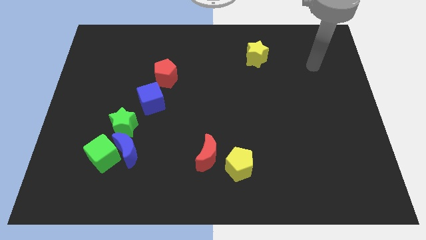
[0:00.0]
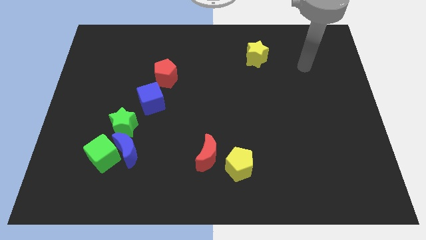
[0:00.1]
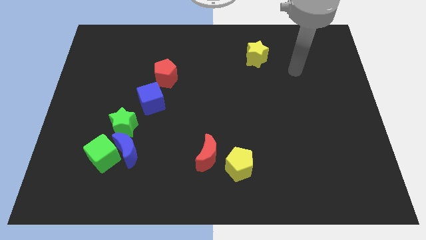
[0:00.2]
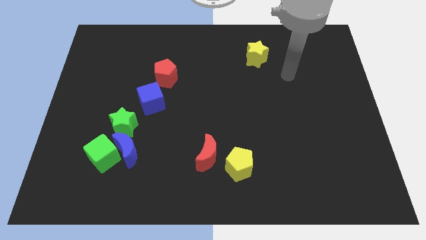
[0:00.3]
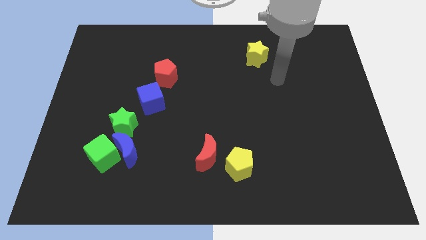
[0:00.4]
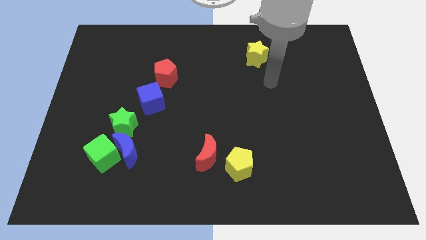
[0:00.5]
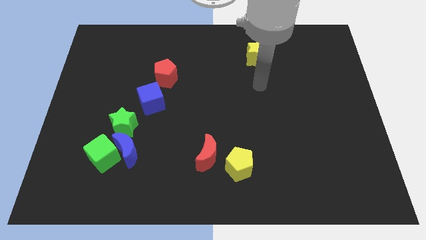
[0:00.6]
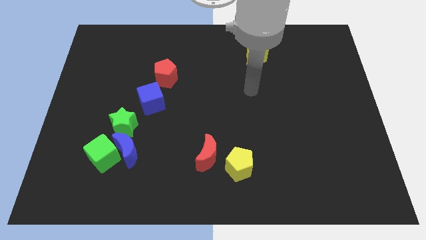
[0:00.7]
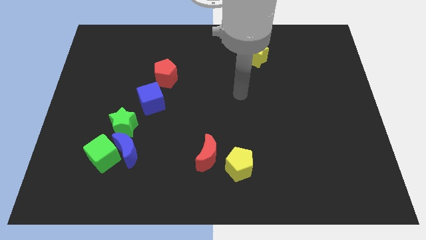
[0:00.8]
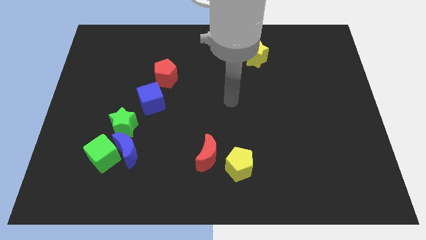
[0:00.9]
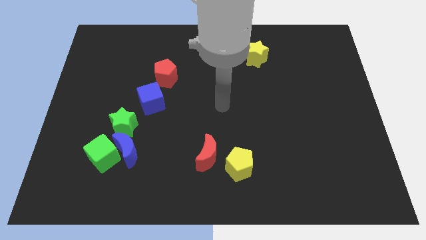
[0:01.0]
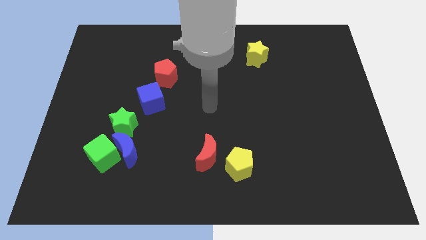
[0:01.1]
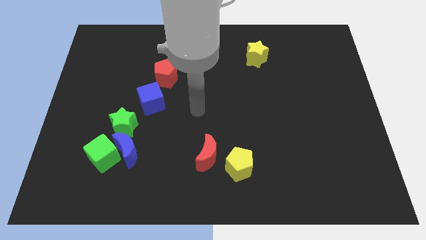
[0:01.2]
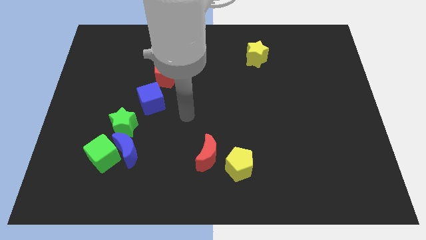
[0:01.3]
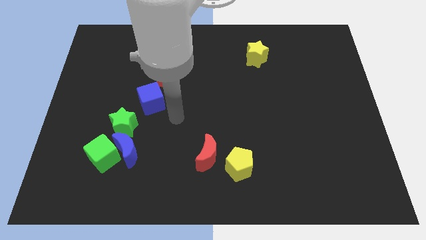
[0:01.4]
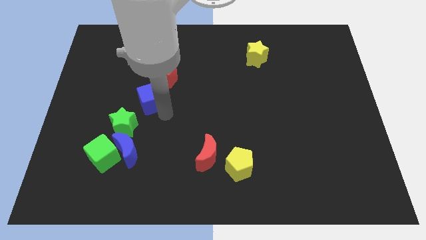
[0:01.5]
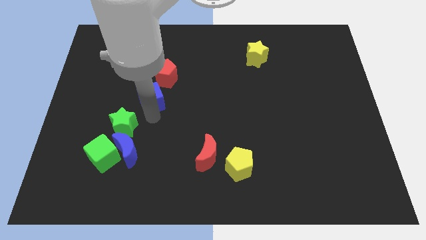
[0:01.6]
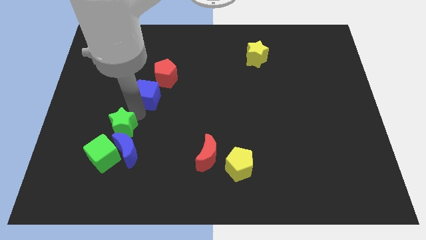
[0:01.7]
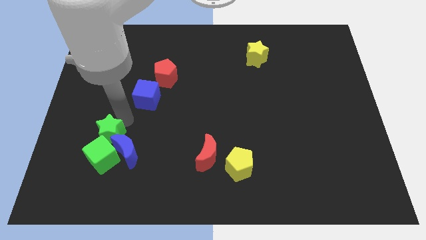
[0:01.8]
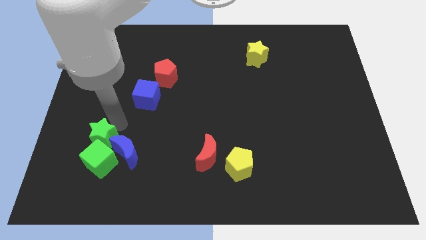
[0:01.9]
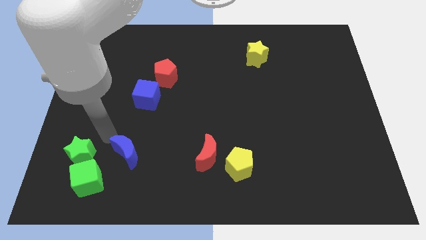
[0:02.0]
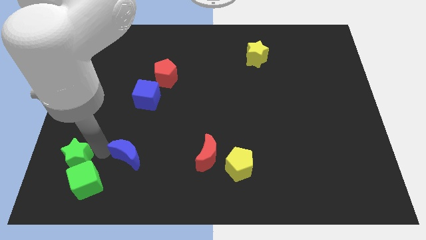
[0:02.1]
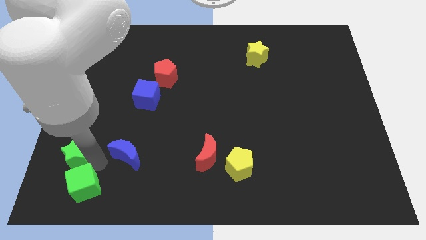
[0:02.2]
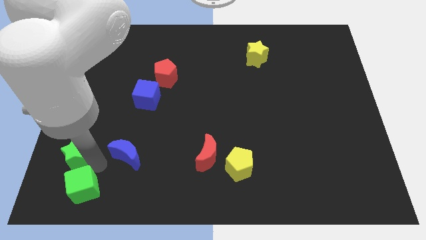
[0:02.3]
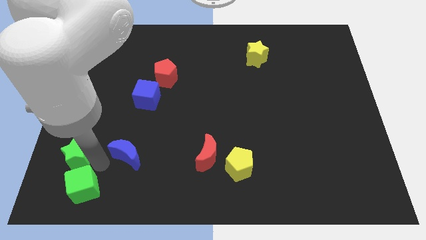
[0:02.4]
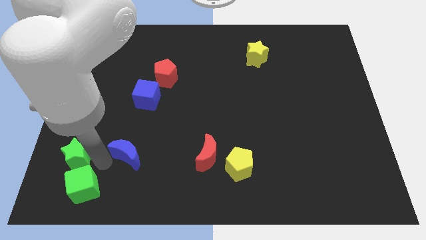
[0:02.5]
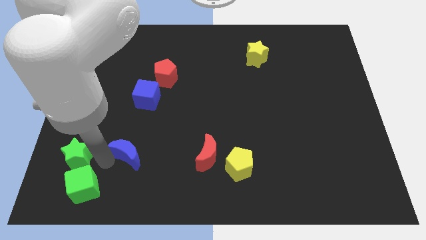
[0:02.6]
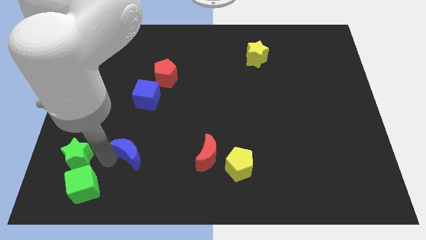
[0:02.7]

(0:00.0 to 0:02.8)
pull the blue moon apart from the green cube and green star

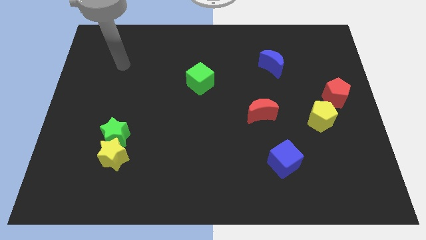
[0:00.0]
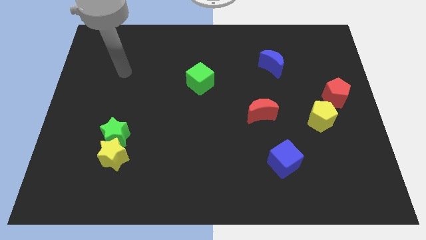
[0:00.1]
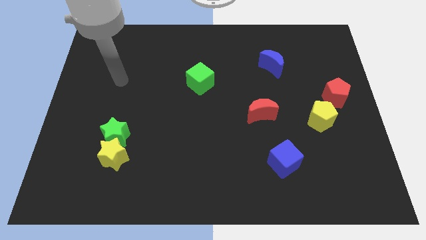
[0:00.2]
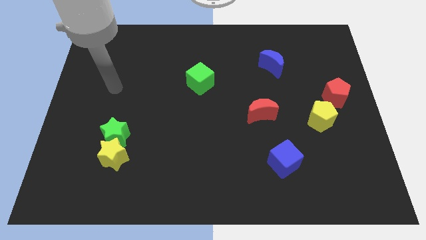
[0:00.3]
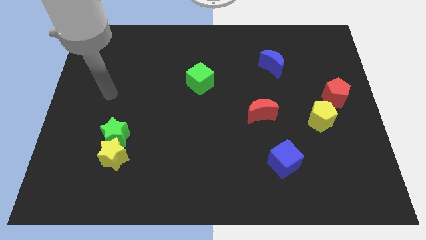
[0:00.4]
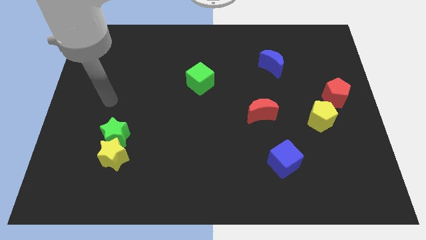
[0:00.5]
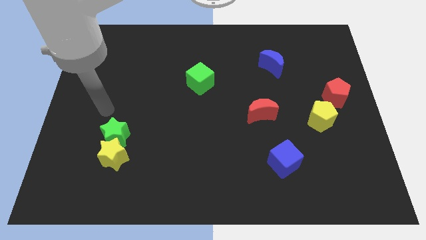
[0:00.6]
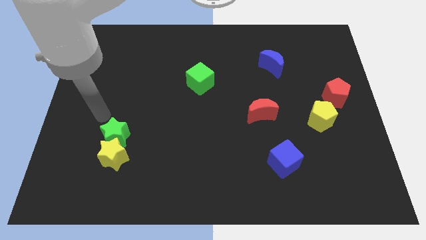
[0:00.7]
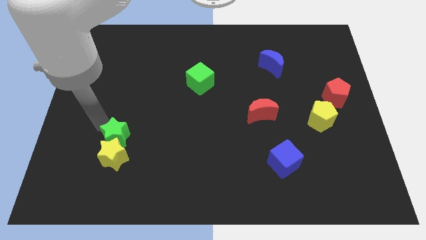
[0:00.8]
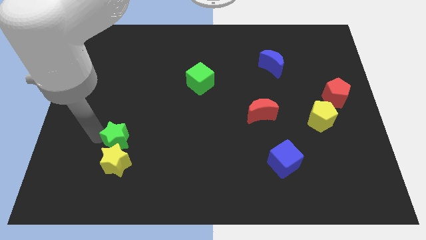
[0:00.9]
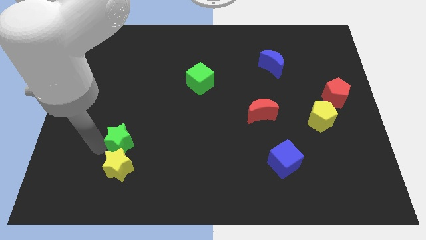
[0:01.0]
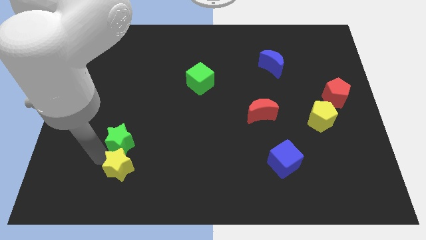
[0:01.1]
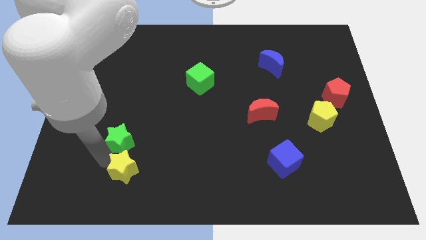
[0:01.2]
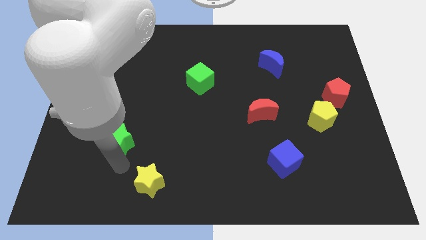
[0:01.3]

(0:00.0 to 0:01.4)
pull the green star apart from the yellow star

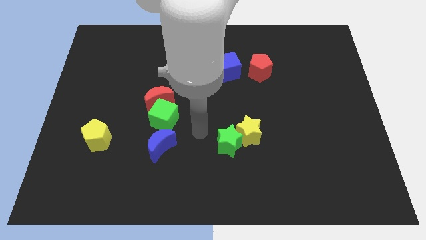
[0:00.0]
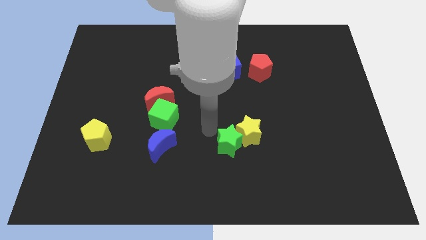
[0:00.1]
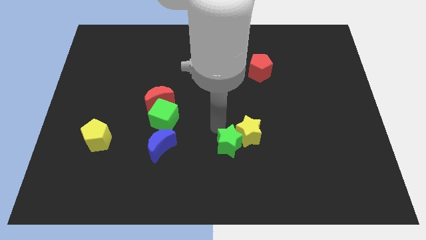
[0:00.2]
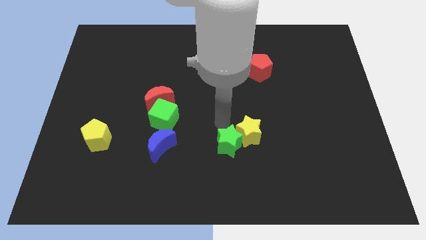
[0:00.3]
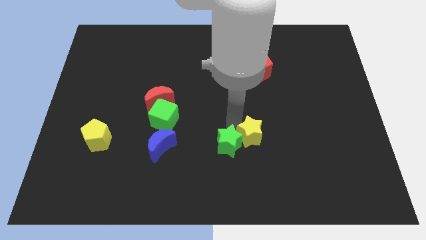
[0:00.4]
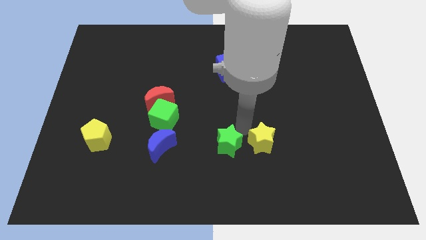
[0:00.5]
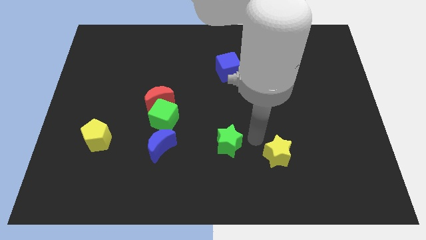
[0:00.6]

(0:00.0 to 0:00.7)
move the green star away from the yellow star

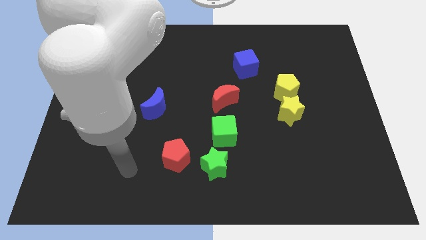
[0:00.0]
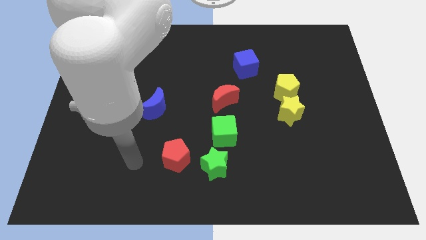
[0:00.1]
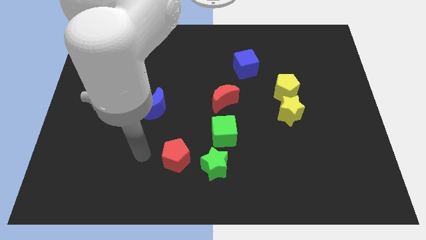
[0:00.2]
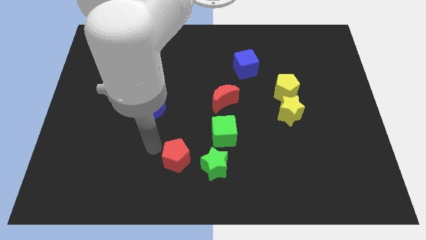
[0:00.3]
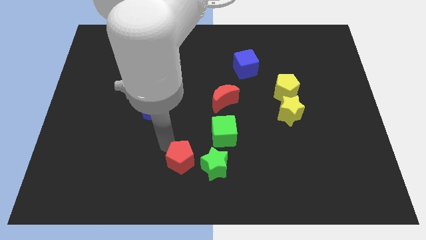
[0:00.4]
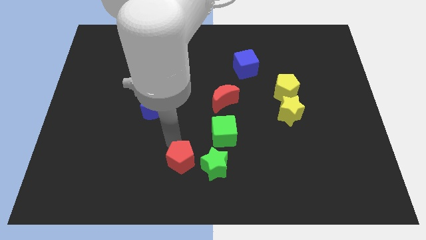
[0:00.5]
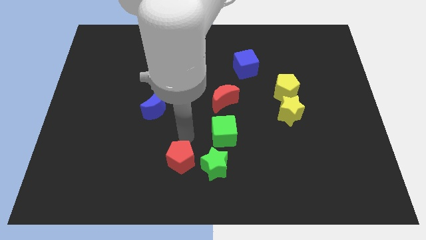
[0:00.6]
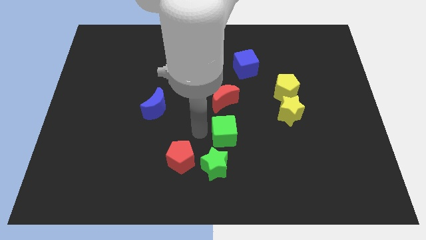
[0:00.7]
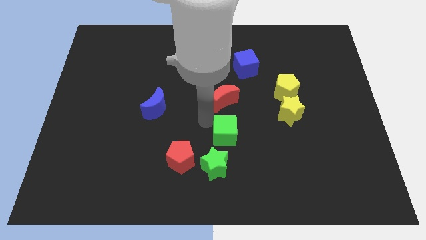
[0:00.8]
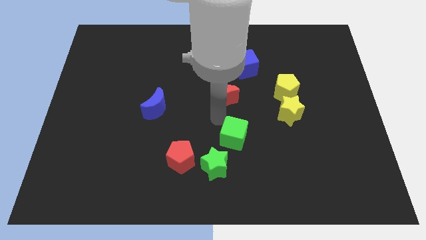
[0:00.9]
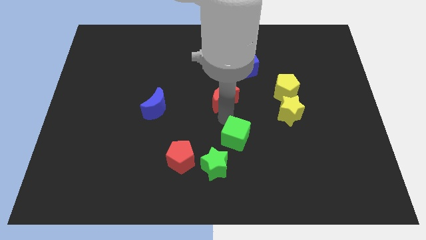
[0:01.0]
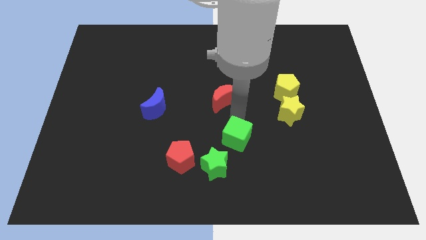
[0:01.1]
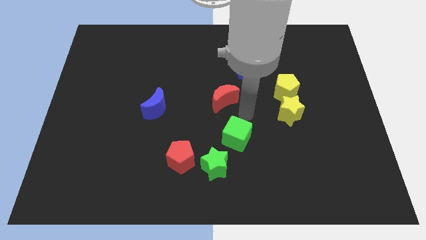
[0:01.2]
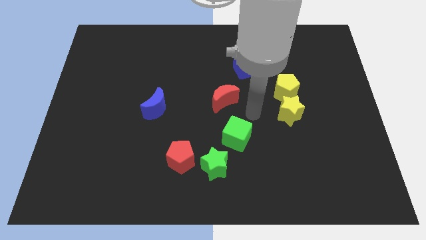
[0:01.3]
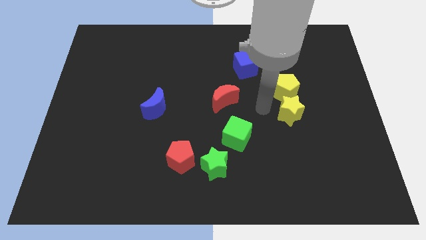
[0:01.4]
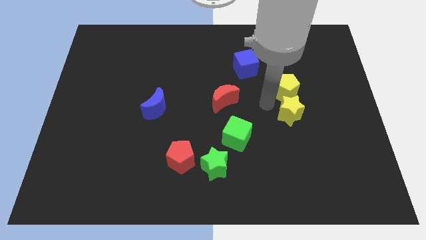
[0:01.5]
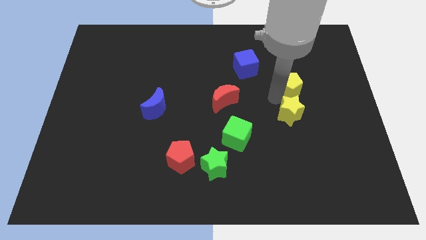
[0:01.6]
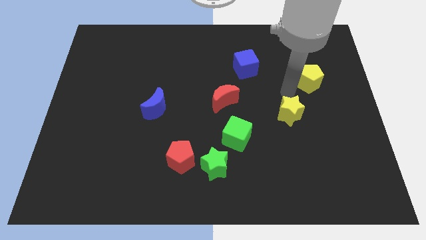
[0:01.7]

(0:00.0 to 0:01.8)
move the yellow star away from the yellow pentagon

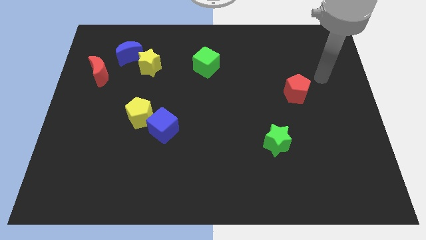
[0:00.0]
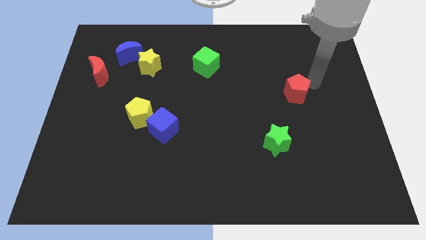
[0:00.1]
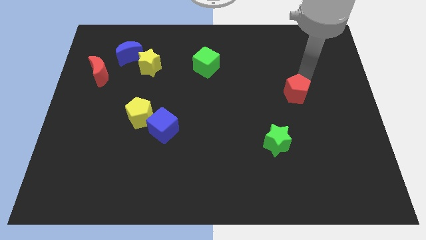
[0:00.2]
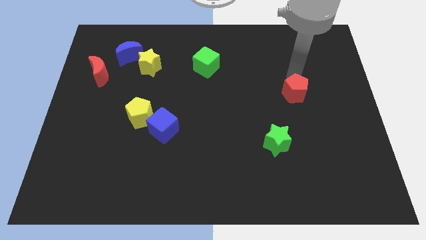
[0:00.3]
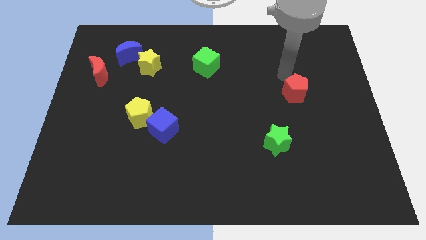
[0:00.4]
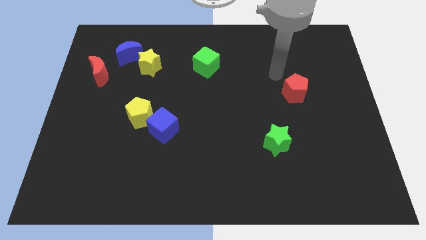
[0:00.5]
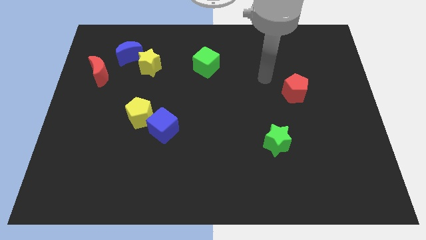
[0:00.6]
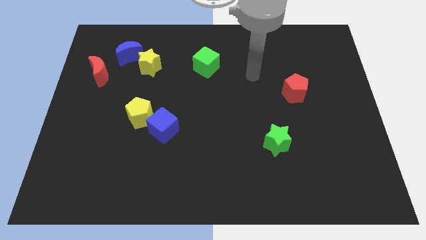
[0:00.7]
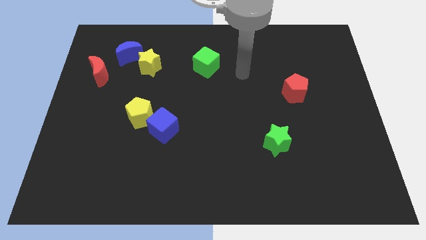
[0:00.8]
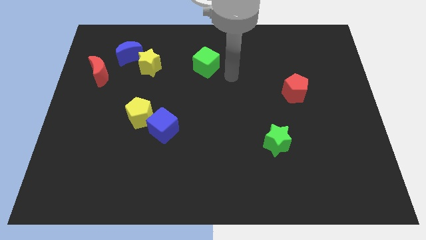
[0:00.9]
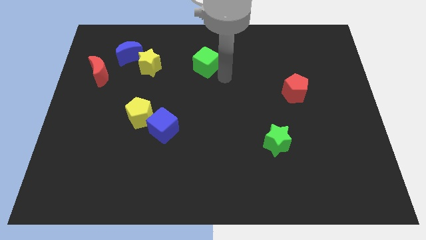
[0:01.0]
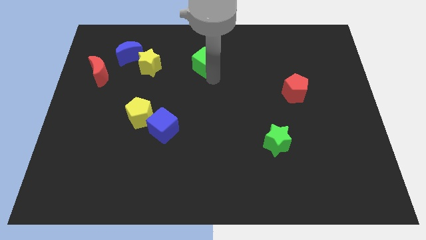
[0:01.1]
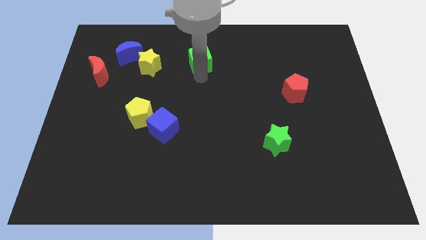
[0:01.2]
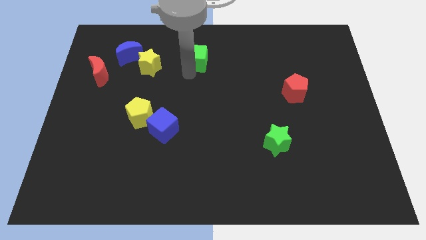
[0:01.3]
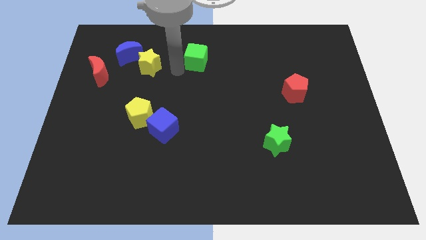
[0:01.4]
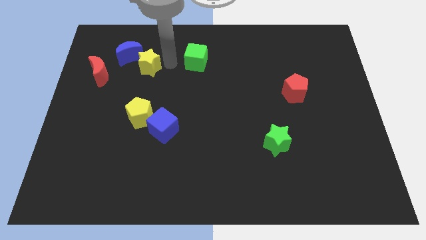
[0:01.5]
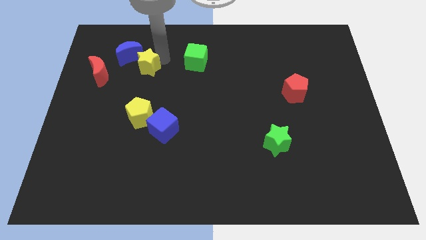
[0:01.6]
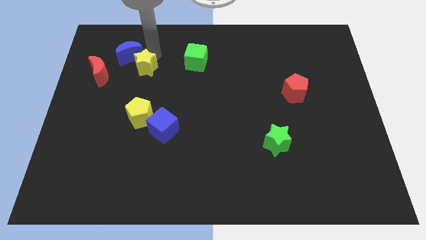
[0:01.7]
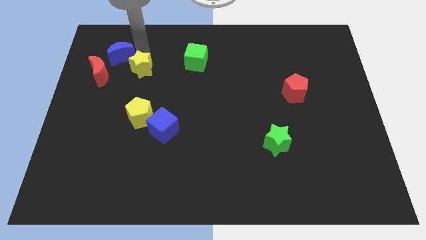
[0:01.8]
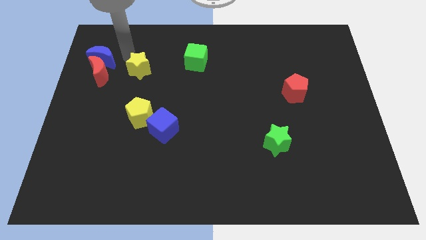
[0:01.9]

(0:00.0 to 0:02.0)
pull the yellow star apart from the blue moon

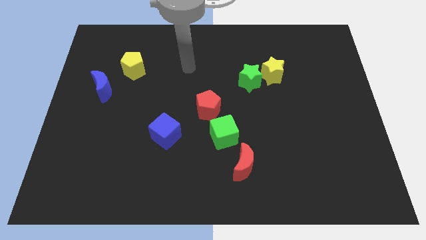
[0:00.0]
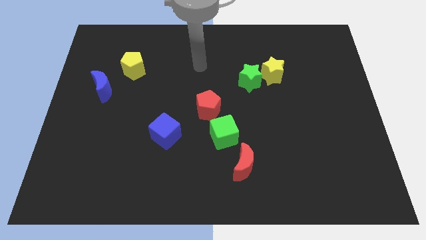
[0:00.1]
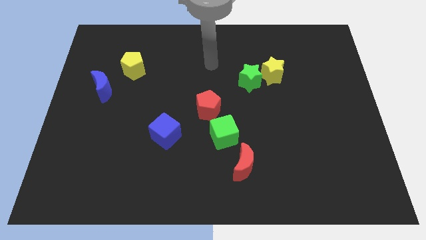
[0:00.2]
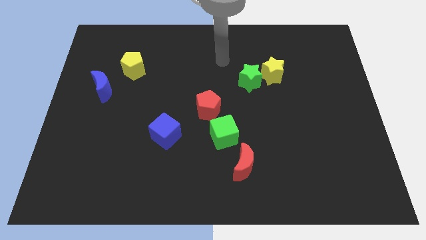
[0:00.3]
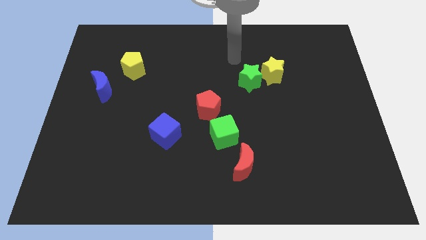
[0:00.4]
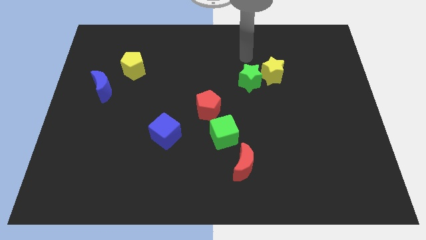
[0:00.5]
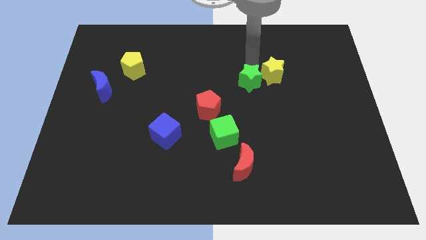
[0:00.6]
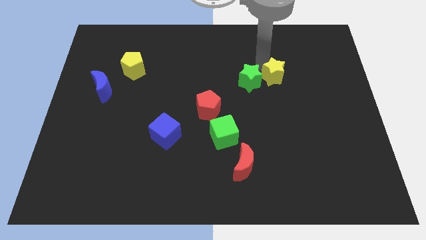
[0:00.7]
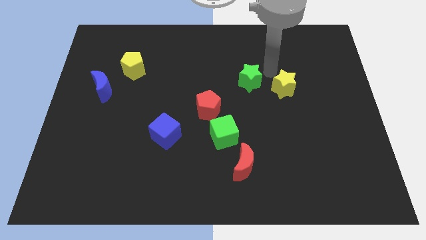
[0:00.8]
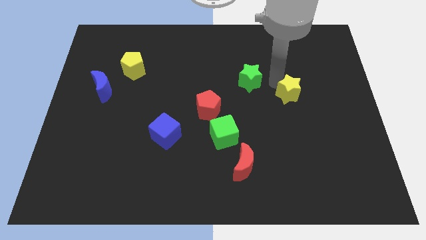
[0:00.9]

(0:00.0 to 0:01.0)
separate the green star from the yellow star
